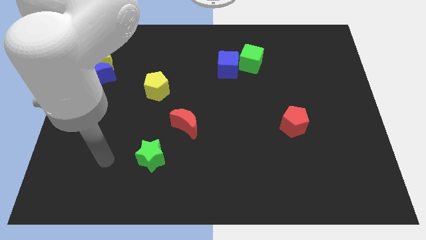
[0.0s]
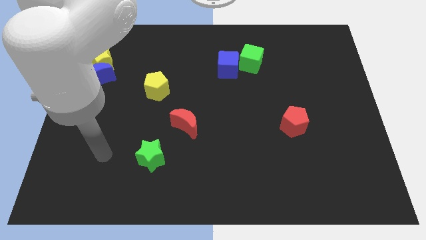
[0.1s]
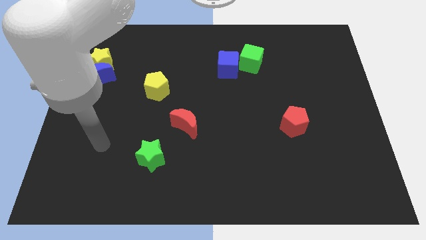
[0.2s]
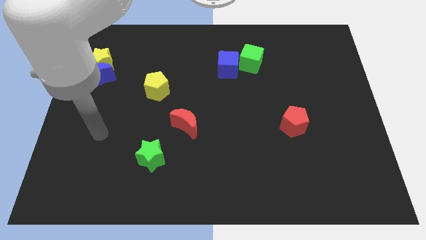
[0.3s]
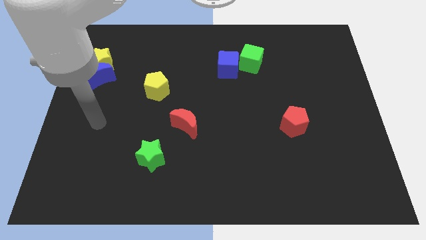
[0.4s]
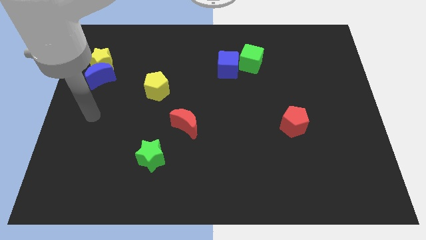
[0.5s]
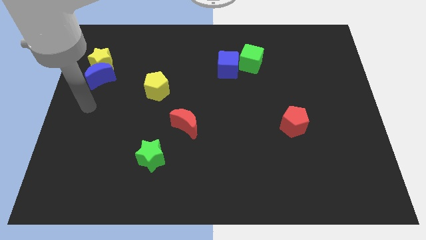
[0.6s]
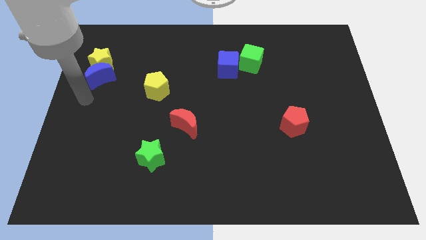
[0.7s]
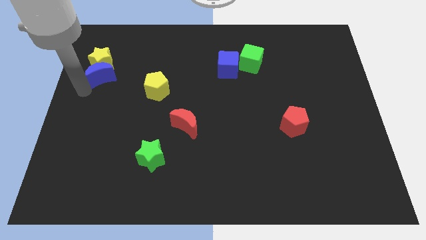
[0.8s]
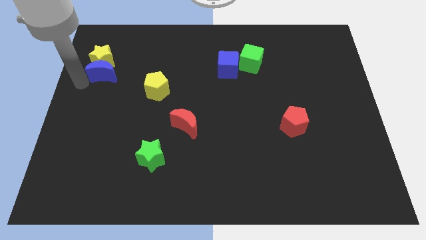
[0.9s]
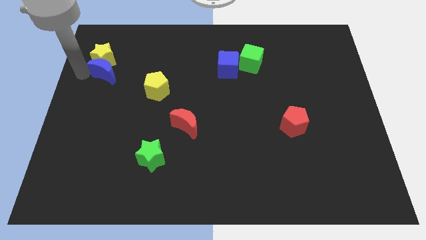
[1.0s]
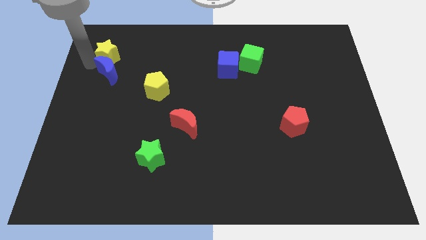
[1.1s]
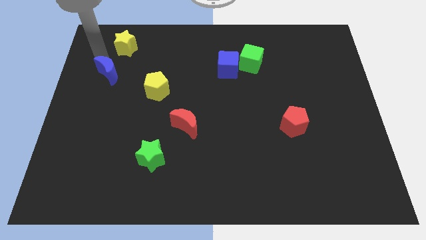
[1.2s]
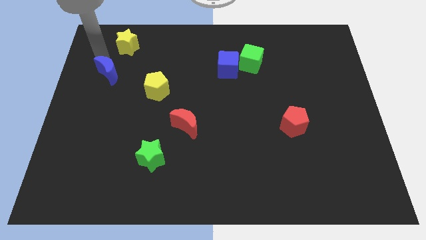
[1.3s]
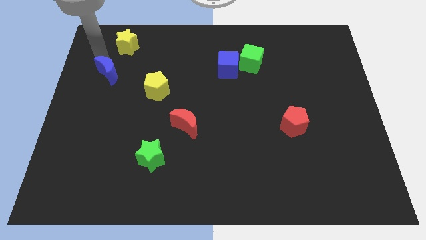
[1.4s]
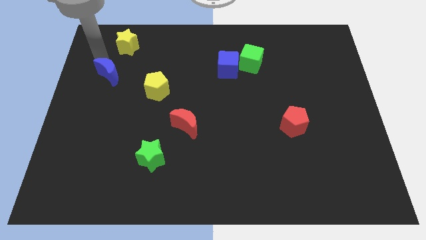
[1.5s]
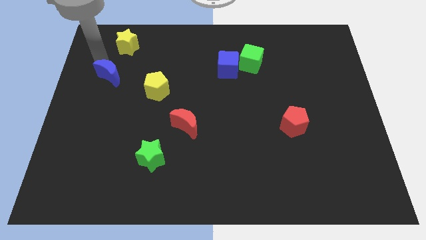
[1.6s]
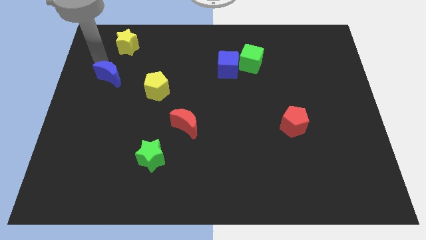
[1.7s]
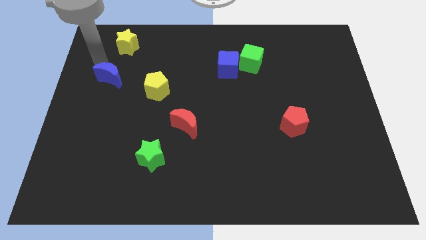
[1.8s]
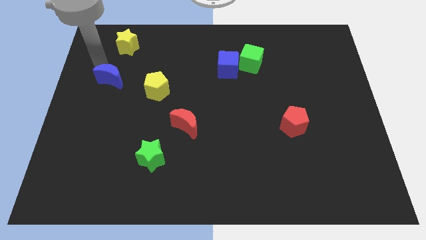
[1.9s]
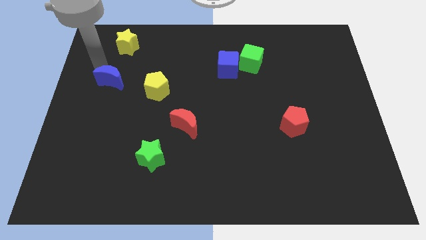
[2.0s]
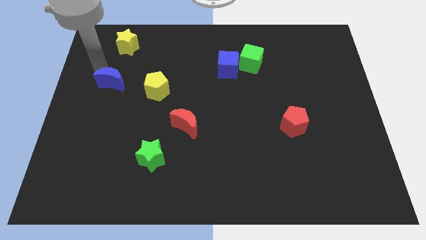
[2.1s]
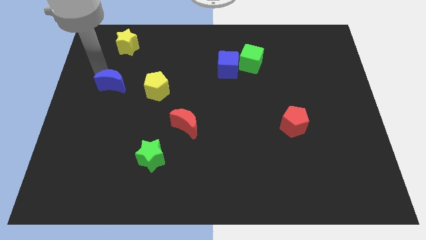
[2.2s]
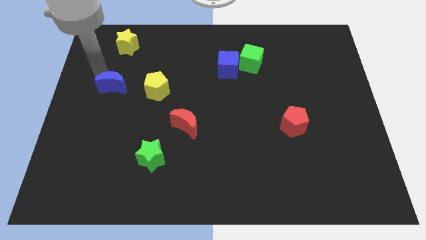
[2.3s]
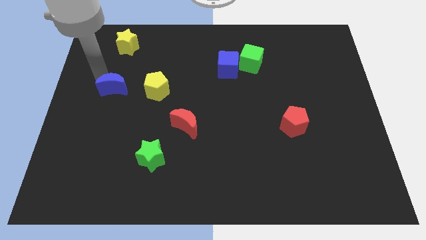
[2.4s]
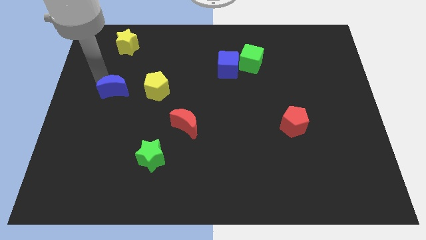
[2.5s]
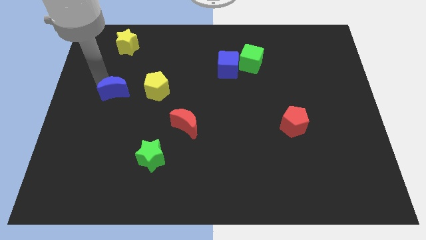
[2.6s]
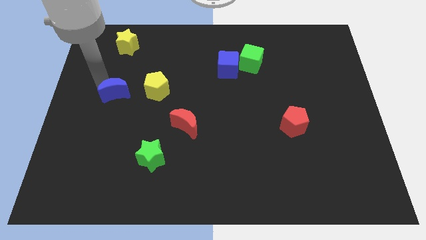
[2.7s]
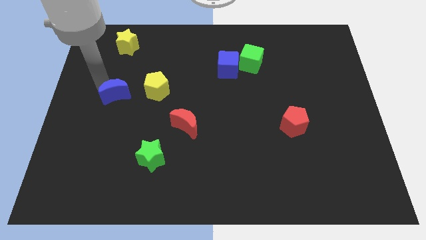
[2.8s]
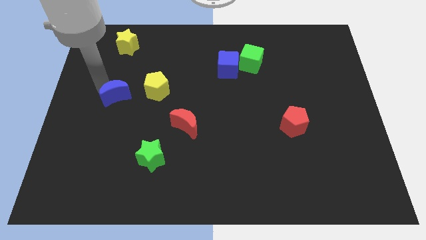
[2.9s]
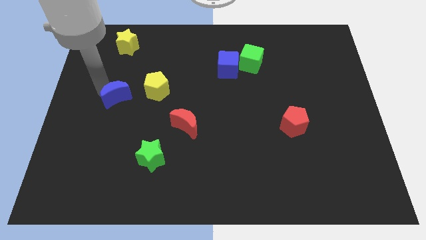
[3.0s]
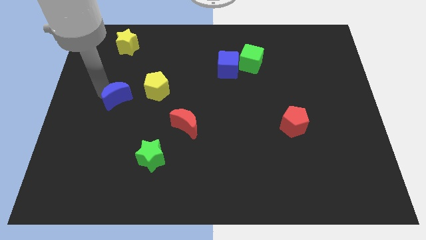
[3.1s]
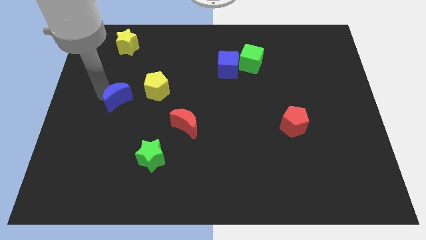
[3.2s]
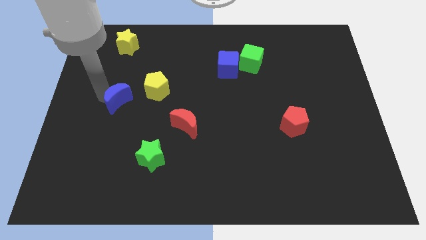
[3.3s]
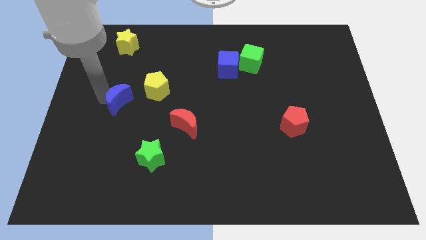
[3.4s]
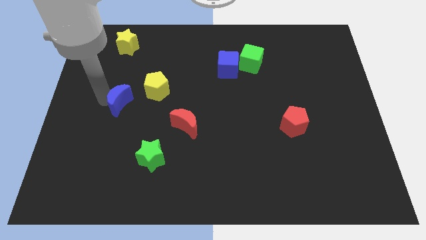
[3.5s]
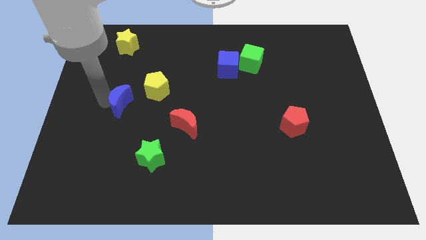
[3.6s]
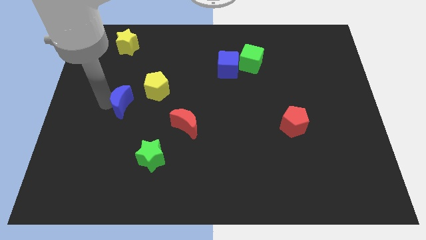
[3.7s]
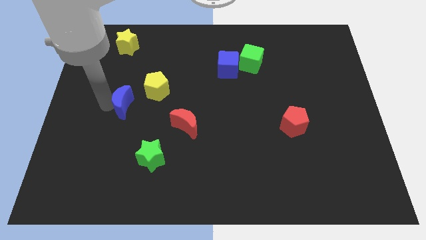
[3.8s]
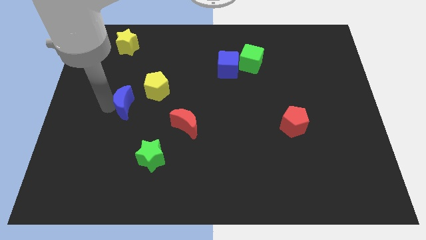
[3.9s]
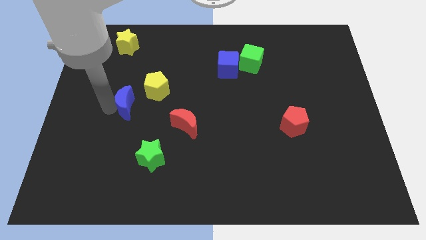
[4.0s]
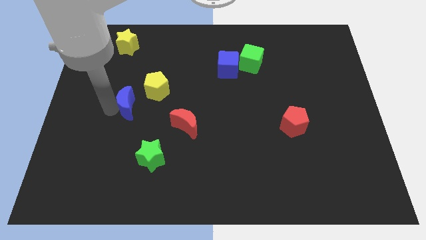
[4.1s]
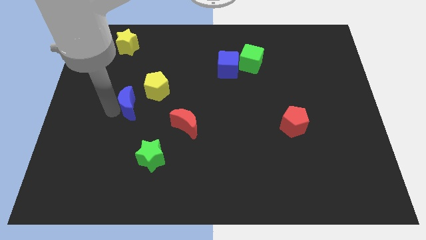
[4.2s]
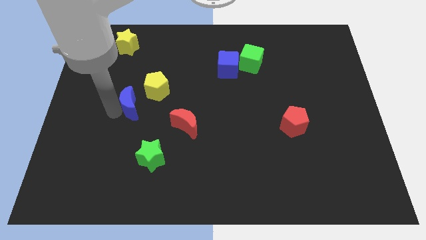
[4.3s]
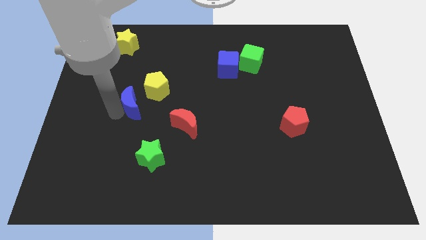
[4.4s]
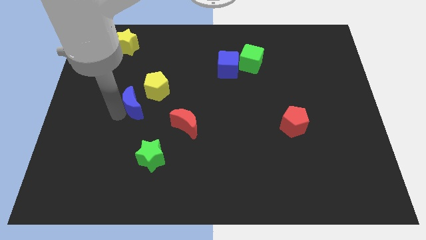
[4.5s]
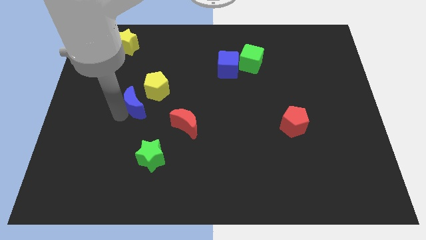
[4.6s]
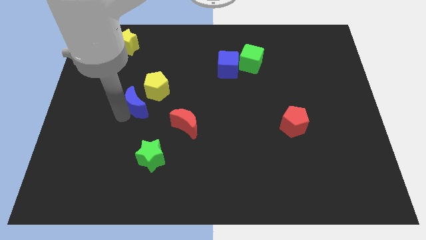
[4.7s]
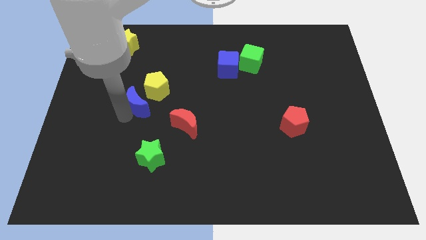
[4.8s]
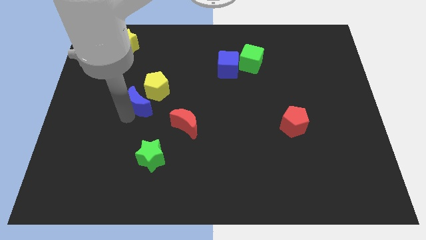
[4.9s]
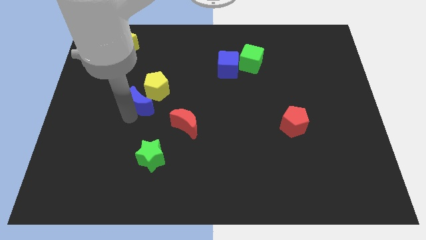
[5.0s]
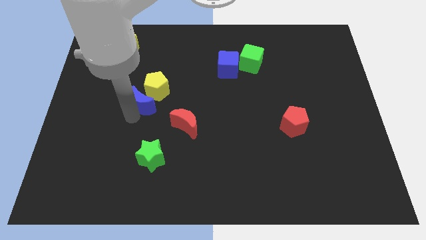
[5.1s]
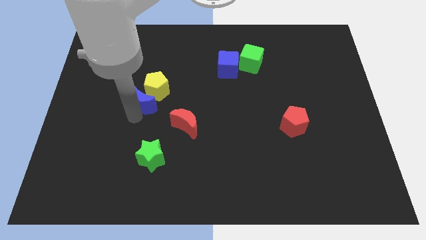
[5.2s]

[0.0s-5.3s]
put the blue moon diagonally up and to the left of the red moon

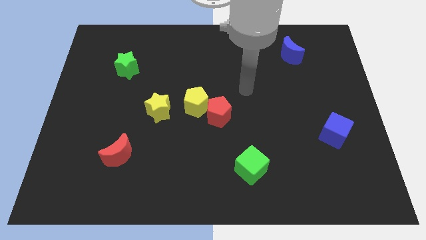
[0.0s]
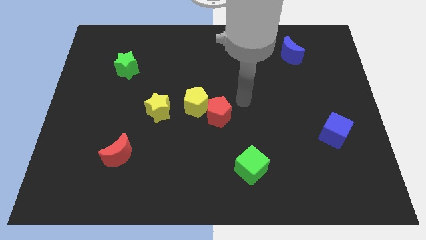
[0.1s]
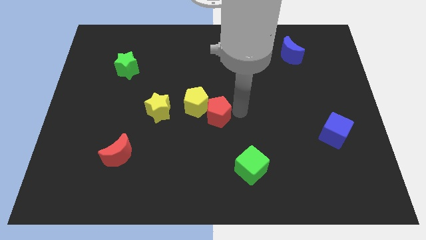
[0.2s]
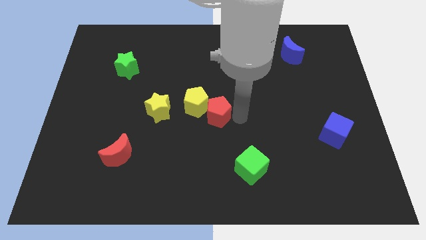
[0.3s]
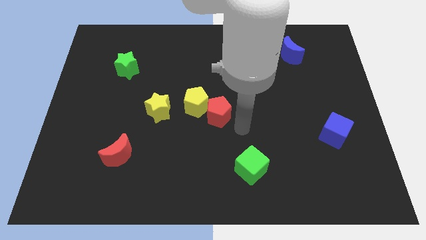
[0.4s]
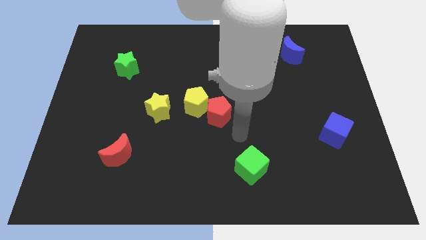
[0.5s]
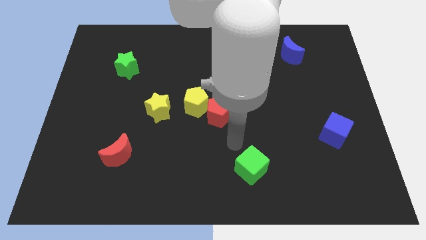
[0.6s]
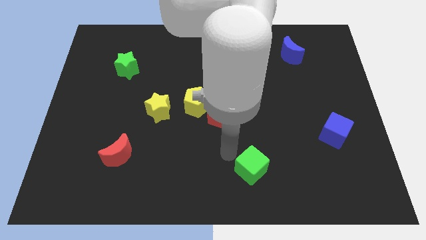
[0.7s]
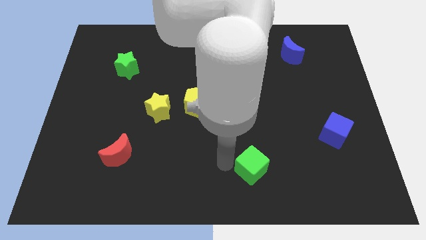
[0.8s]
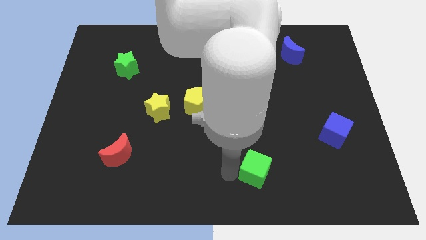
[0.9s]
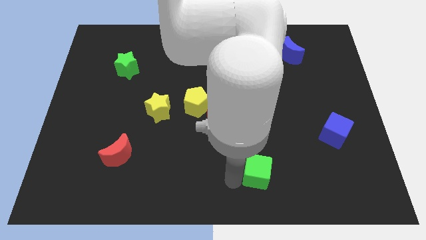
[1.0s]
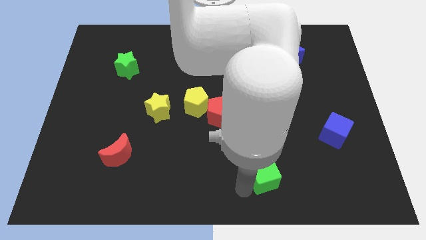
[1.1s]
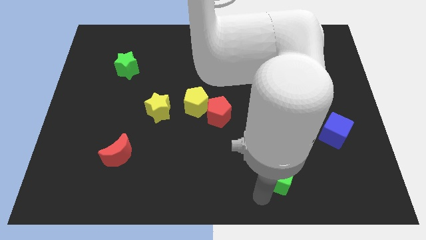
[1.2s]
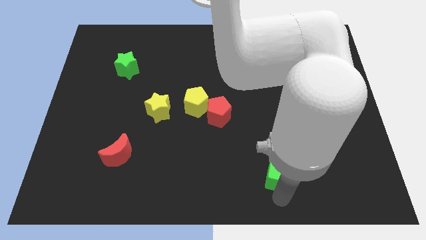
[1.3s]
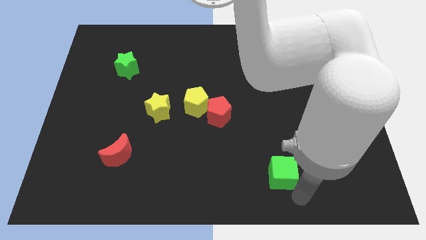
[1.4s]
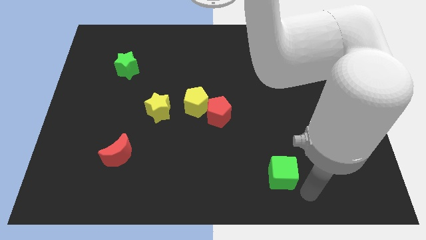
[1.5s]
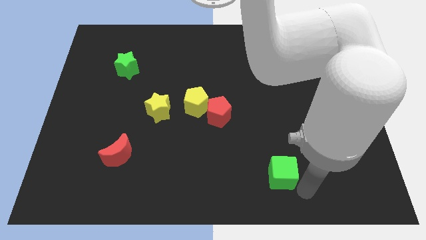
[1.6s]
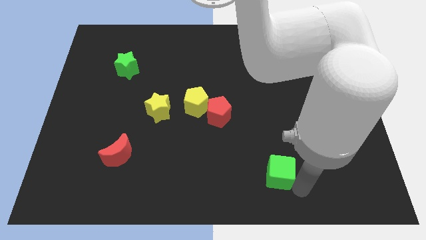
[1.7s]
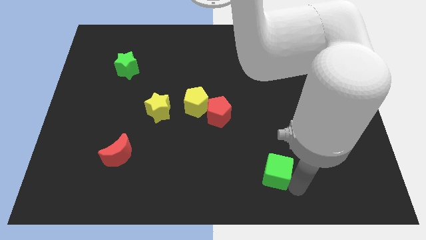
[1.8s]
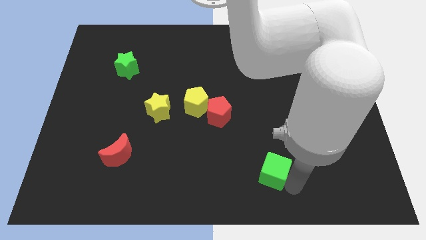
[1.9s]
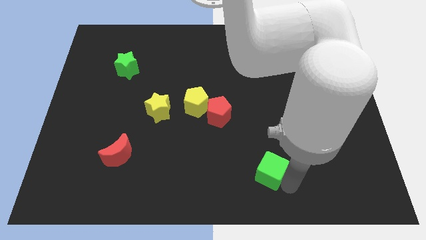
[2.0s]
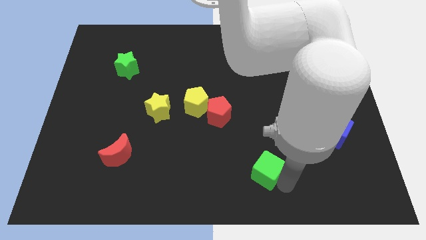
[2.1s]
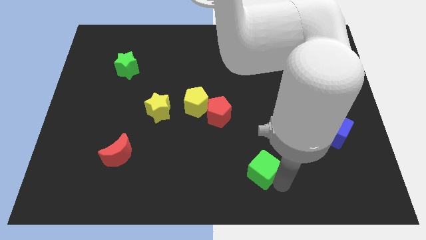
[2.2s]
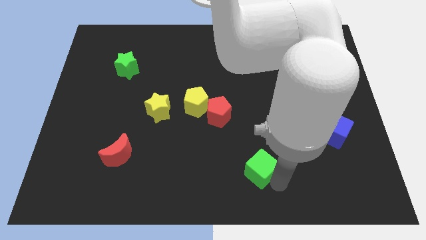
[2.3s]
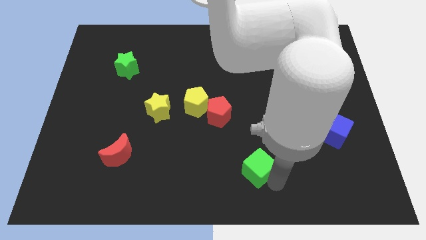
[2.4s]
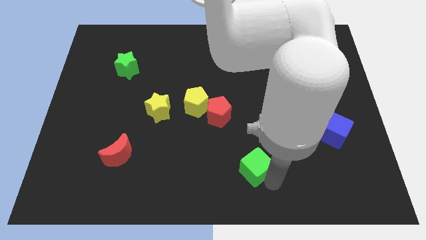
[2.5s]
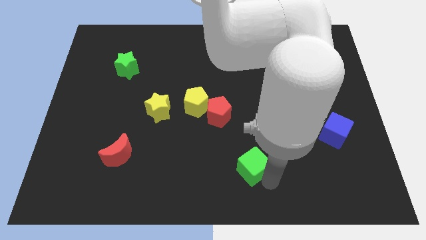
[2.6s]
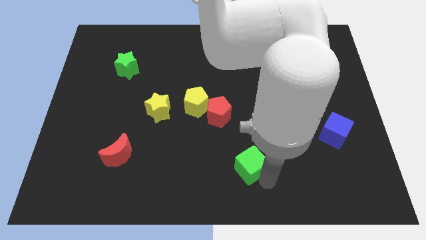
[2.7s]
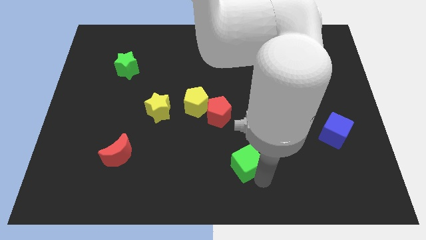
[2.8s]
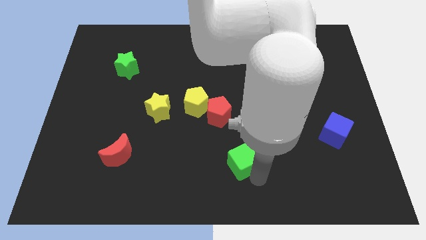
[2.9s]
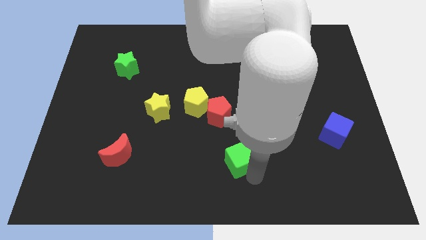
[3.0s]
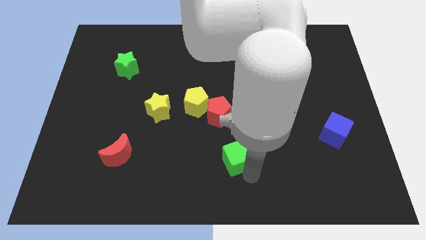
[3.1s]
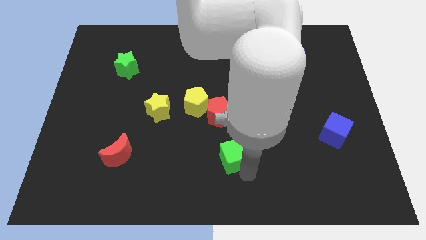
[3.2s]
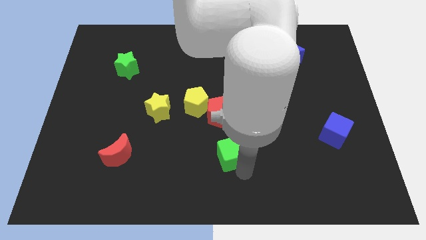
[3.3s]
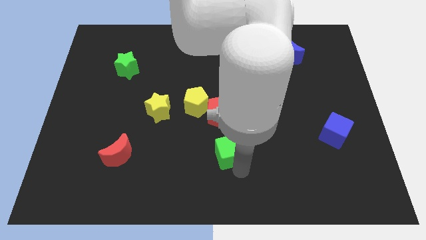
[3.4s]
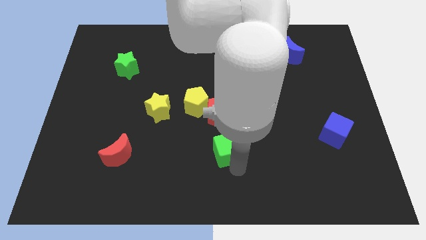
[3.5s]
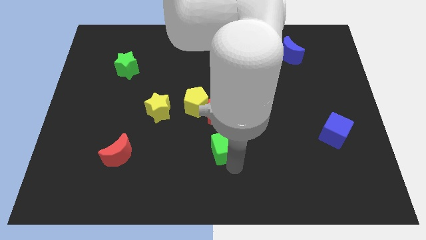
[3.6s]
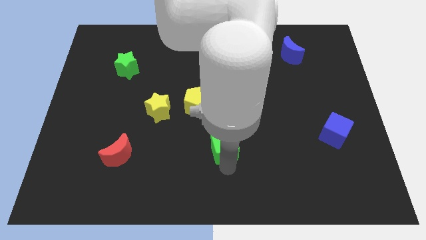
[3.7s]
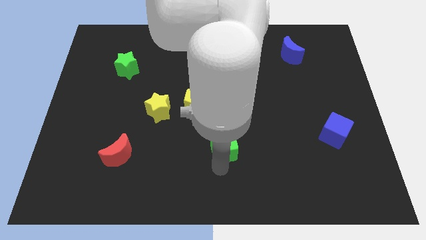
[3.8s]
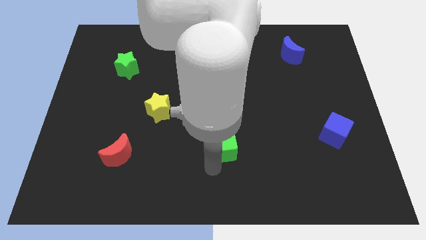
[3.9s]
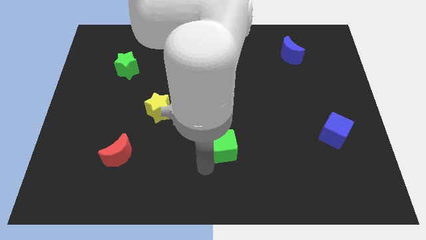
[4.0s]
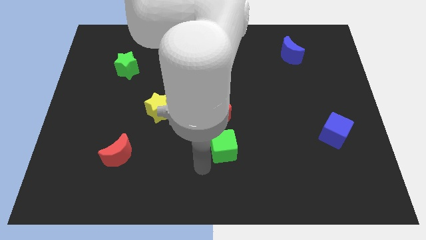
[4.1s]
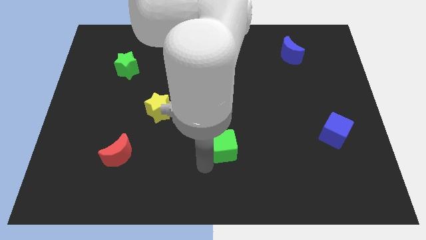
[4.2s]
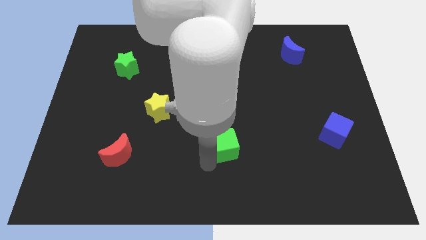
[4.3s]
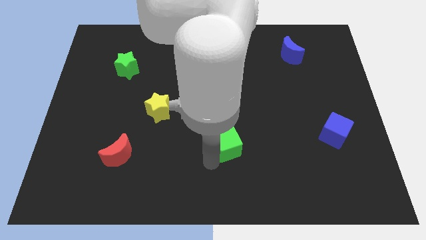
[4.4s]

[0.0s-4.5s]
move the green cube to the bottom right of the red pentagon
